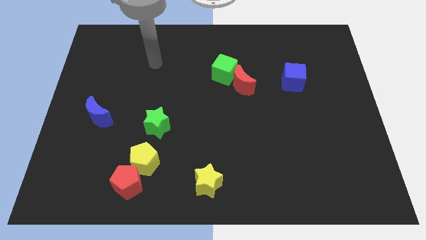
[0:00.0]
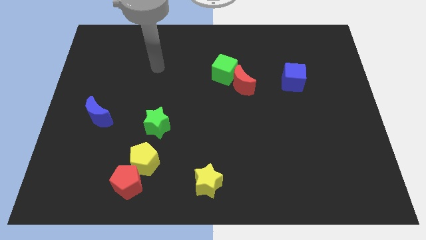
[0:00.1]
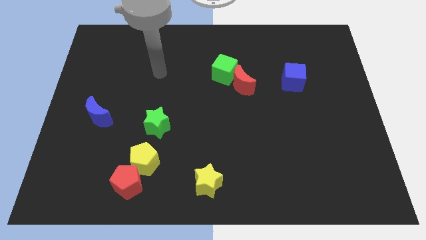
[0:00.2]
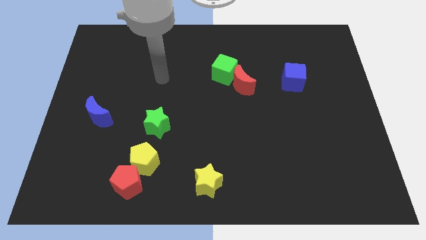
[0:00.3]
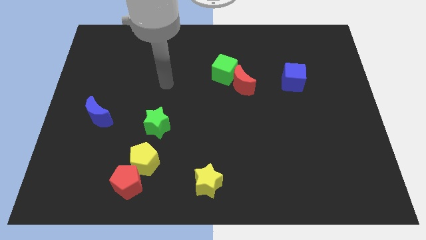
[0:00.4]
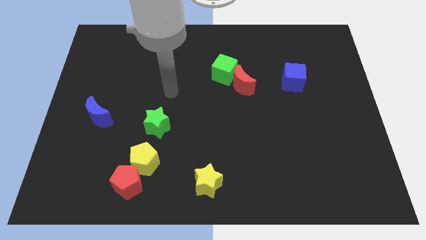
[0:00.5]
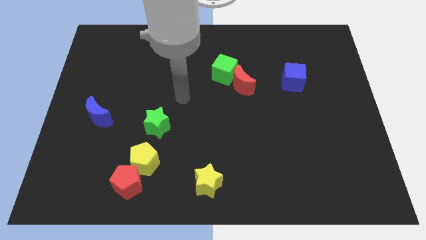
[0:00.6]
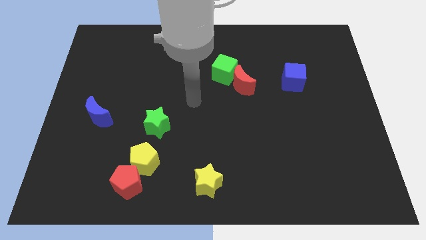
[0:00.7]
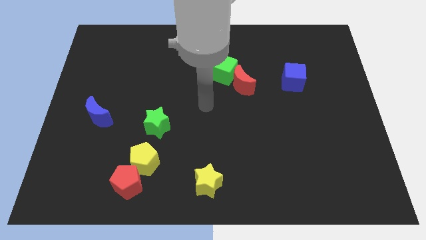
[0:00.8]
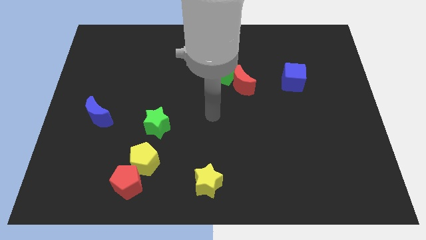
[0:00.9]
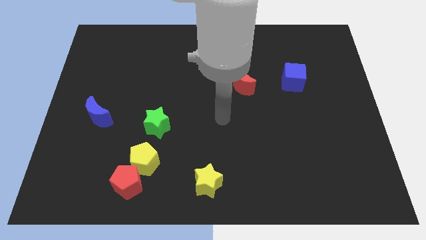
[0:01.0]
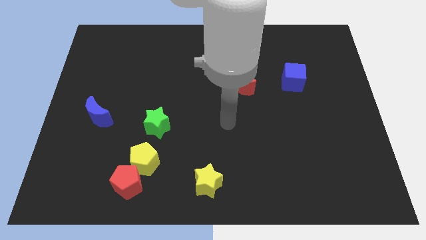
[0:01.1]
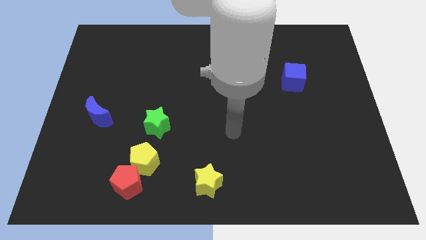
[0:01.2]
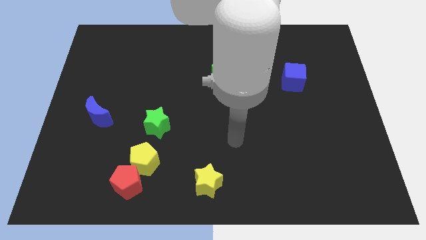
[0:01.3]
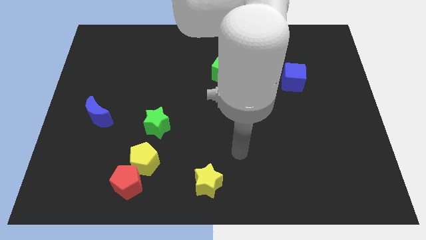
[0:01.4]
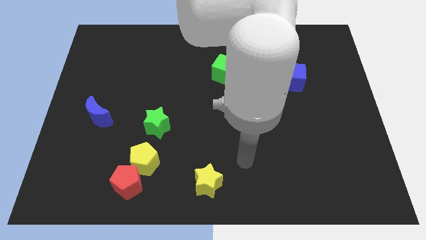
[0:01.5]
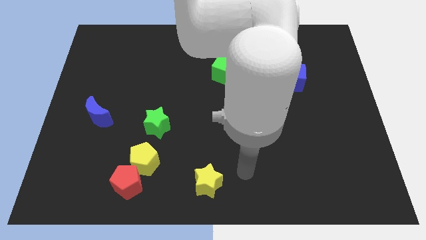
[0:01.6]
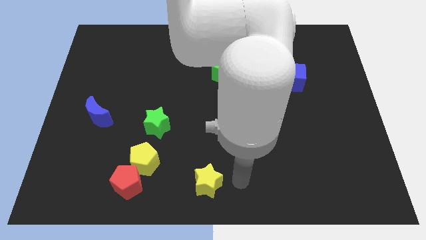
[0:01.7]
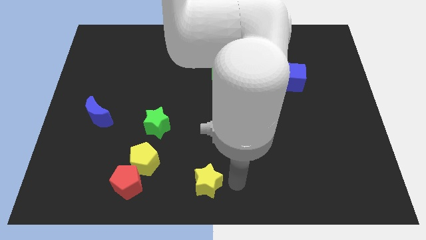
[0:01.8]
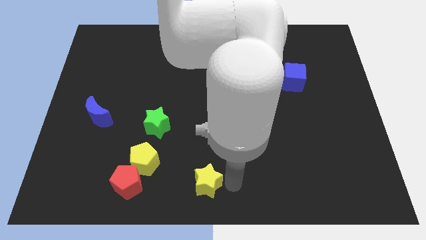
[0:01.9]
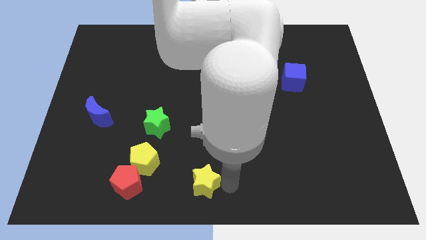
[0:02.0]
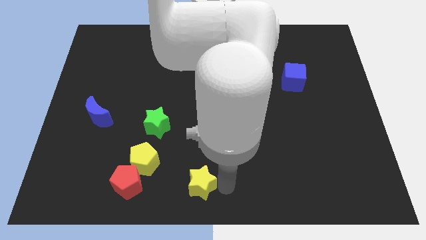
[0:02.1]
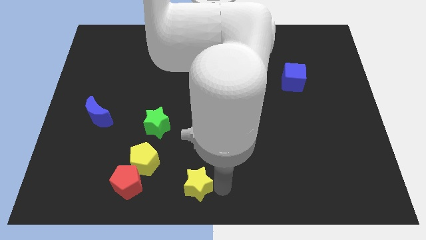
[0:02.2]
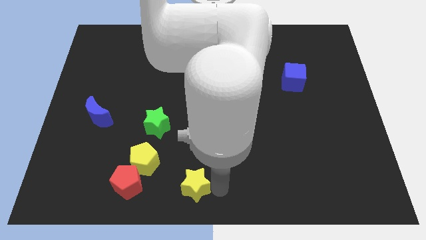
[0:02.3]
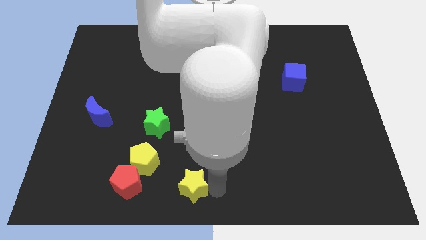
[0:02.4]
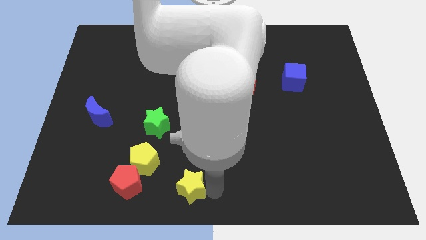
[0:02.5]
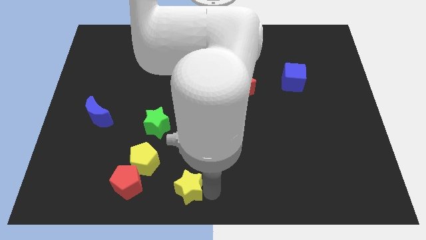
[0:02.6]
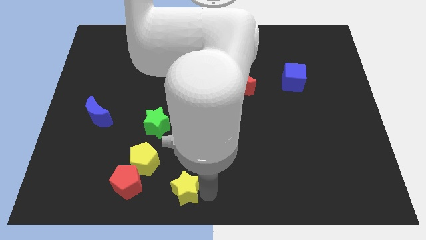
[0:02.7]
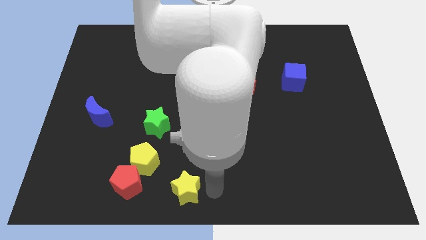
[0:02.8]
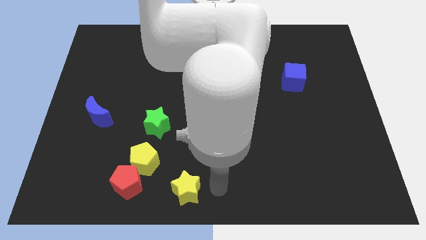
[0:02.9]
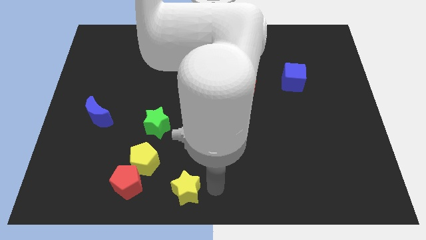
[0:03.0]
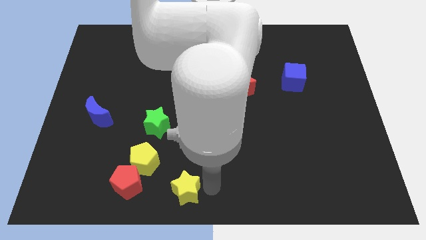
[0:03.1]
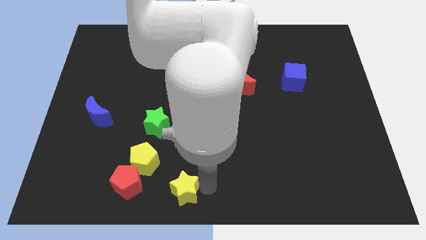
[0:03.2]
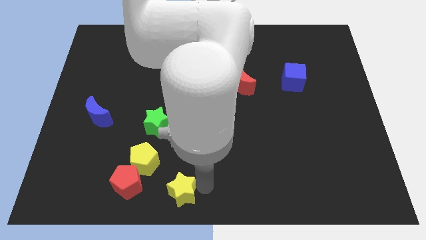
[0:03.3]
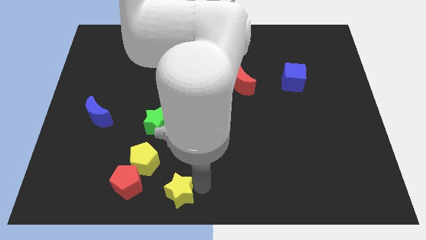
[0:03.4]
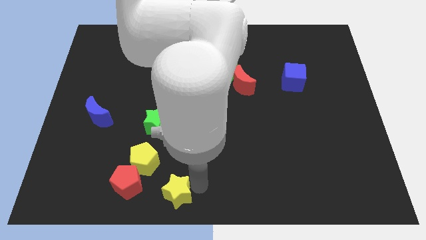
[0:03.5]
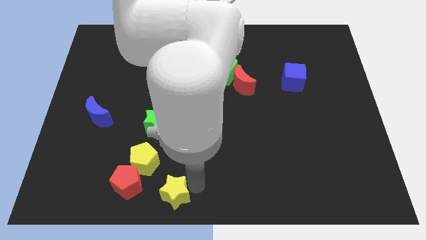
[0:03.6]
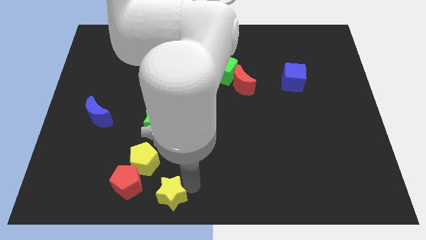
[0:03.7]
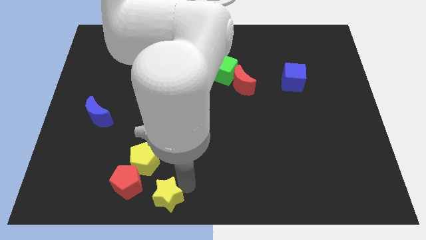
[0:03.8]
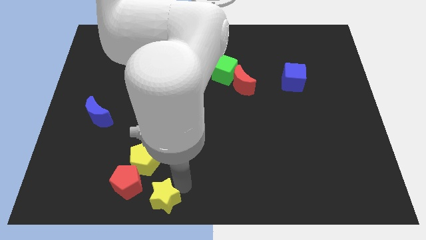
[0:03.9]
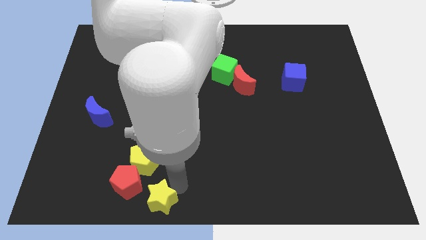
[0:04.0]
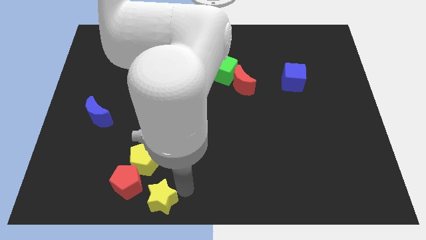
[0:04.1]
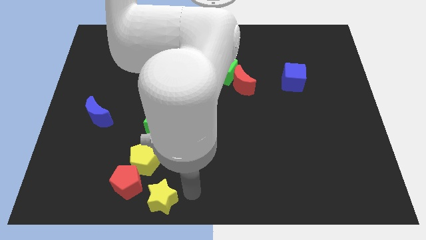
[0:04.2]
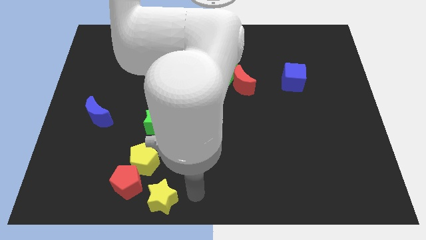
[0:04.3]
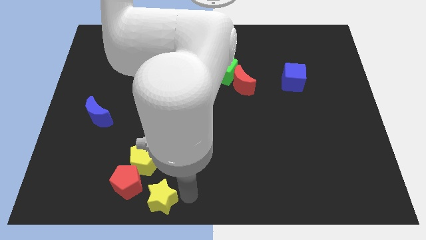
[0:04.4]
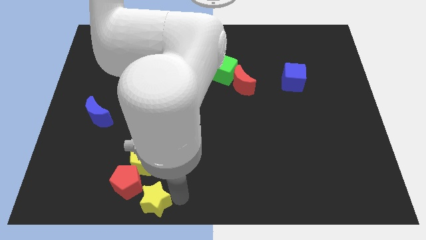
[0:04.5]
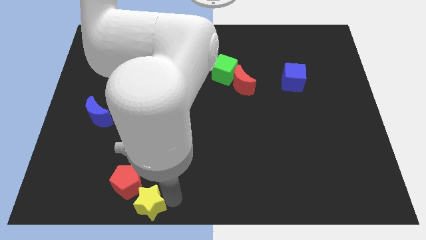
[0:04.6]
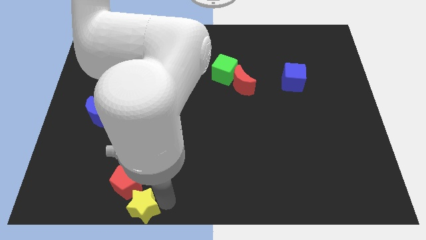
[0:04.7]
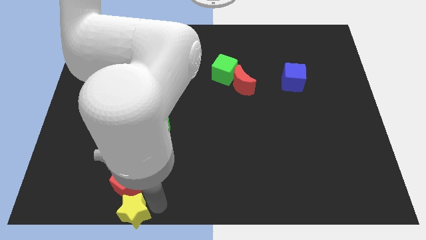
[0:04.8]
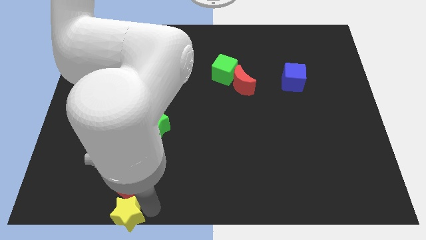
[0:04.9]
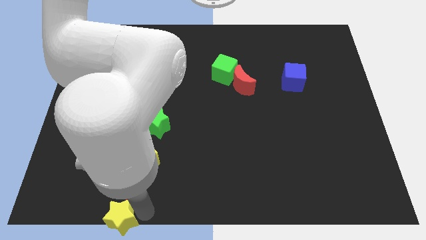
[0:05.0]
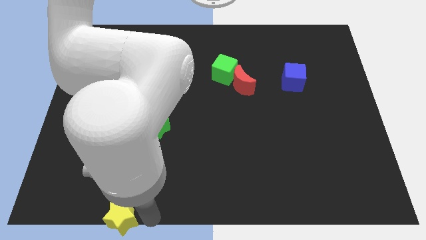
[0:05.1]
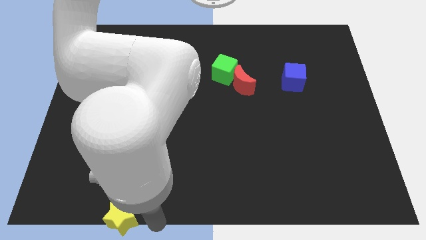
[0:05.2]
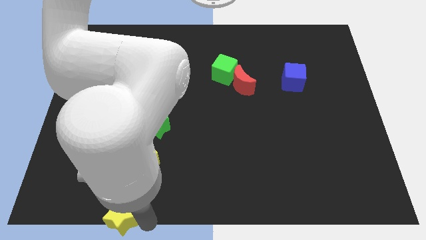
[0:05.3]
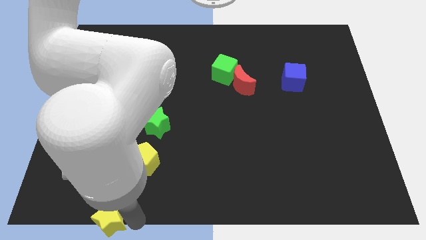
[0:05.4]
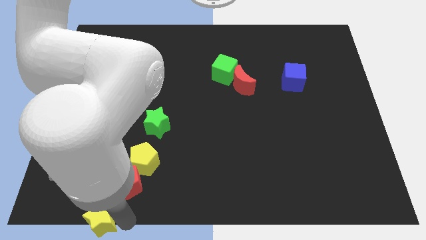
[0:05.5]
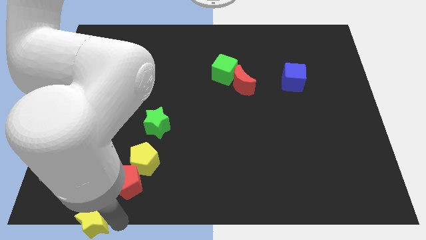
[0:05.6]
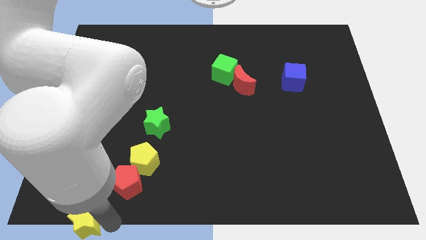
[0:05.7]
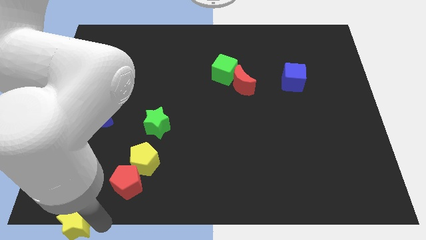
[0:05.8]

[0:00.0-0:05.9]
push the yellow star to the bottom left corner
